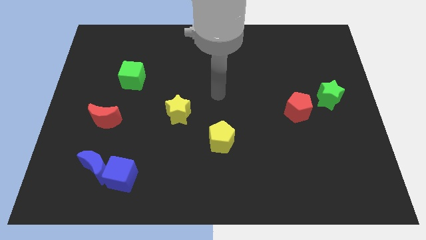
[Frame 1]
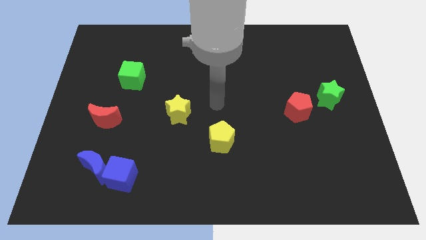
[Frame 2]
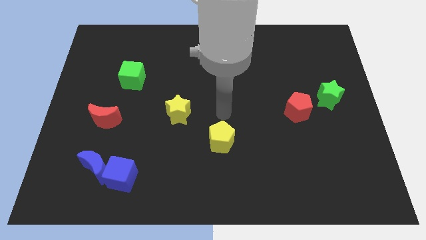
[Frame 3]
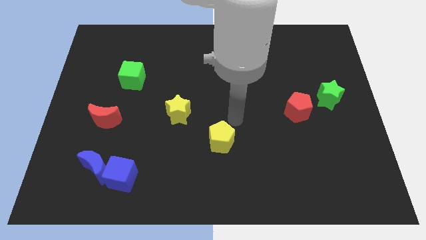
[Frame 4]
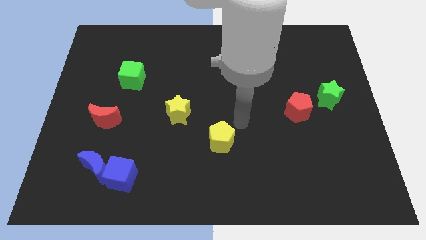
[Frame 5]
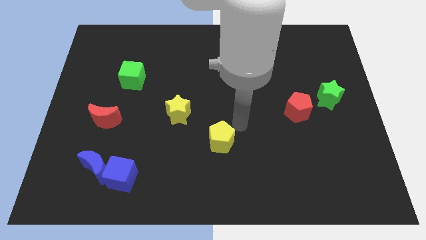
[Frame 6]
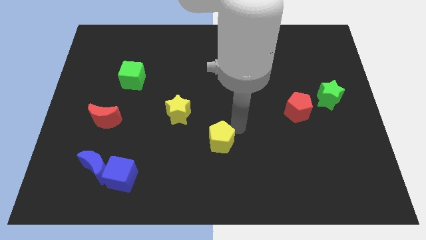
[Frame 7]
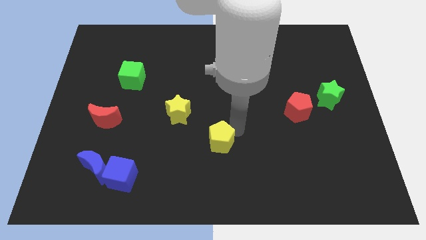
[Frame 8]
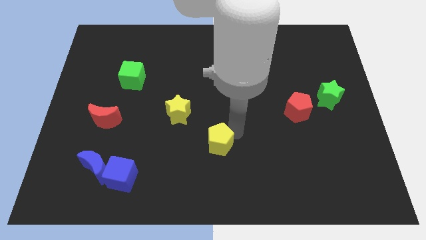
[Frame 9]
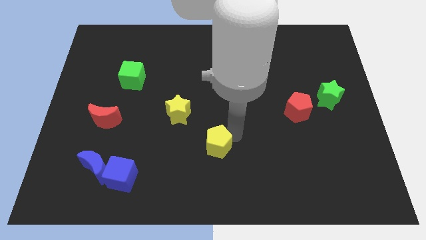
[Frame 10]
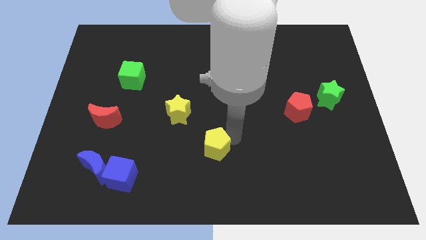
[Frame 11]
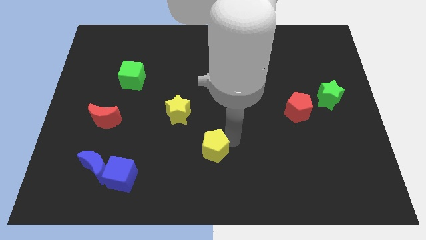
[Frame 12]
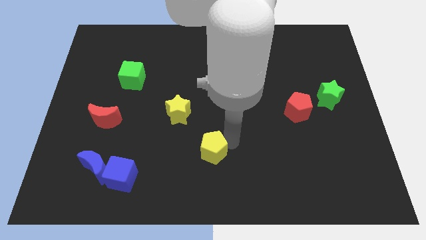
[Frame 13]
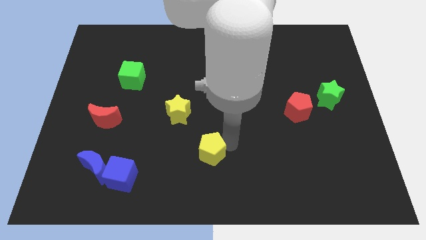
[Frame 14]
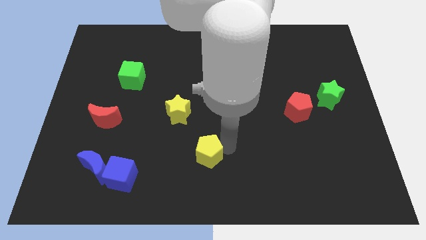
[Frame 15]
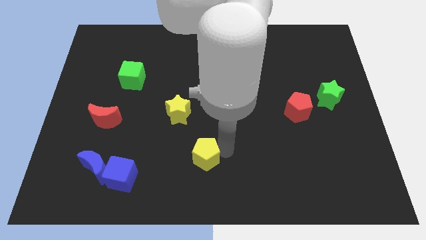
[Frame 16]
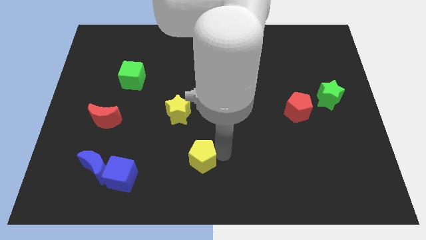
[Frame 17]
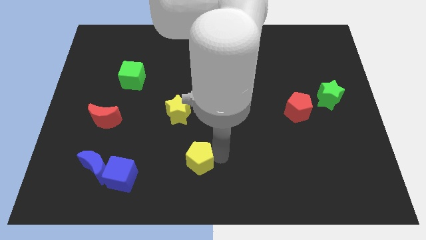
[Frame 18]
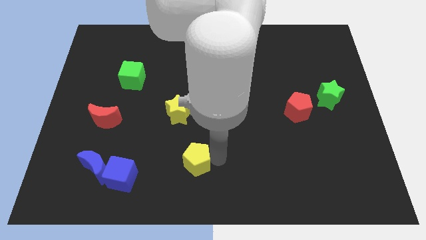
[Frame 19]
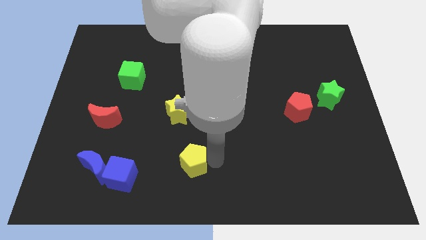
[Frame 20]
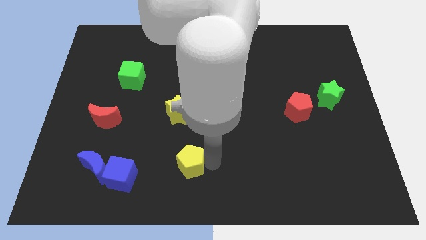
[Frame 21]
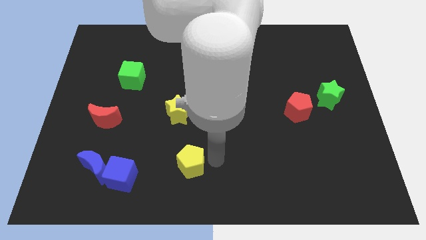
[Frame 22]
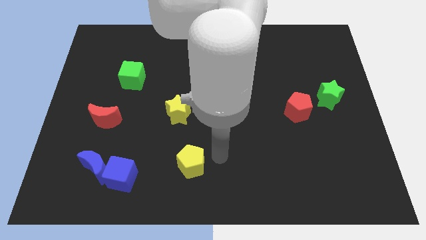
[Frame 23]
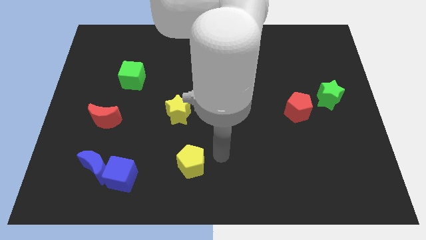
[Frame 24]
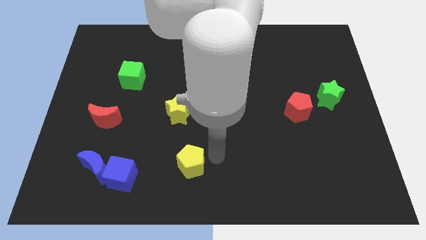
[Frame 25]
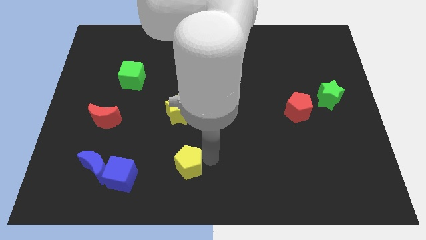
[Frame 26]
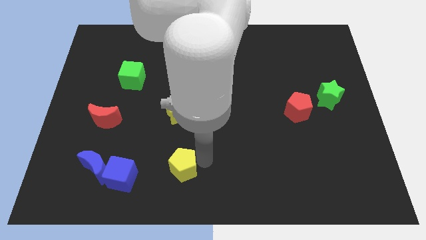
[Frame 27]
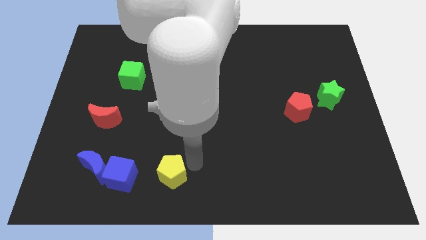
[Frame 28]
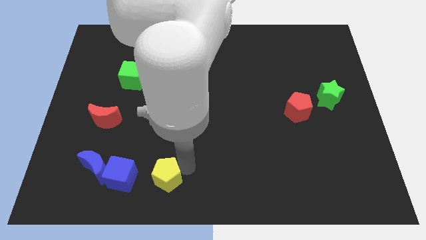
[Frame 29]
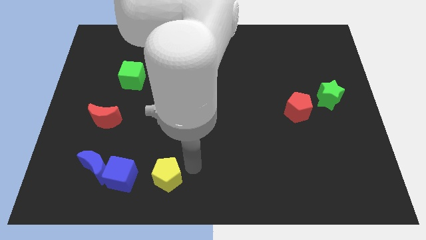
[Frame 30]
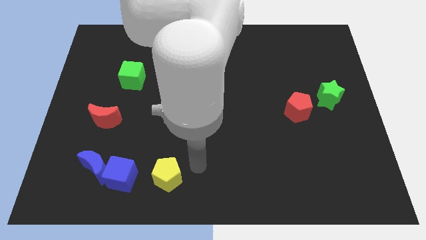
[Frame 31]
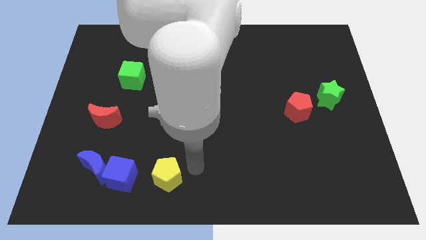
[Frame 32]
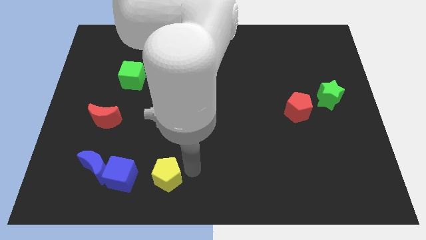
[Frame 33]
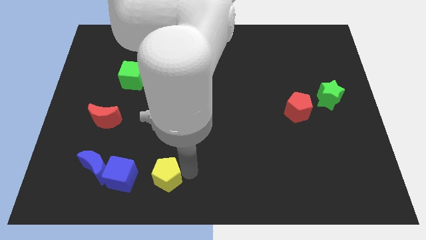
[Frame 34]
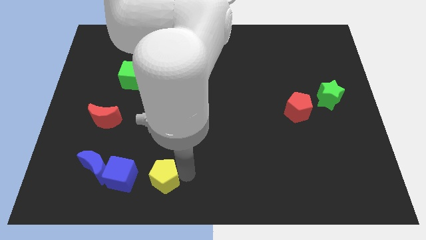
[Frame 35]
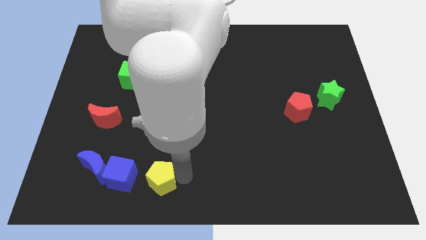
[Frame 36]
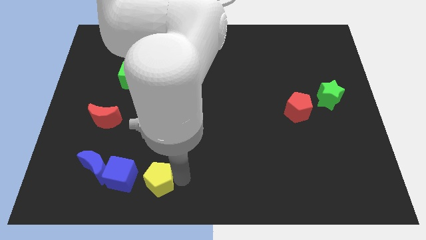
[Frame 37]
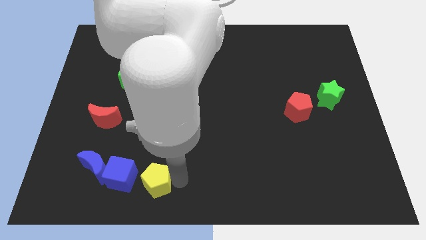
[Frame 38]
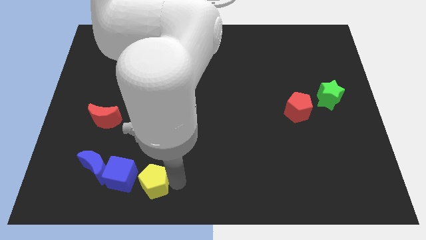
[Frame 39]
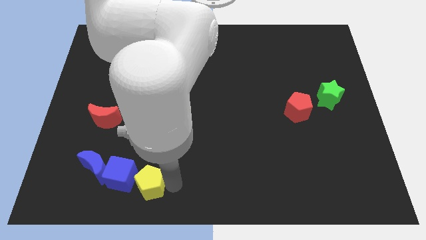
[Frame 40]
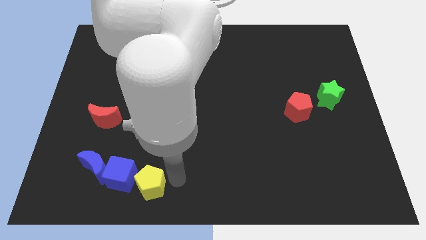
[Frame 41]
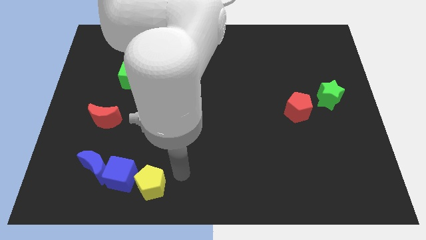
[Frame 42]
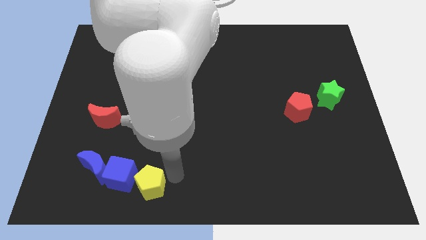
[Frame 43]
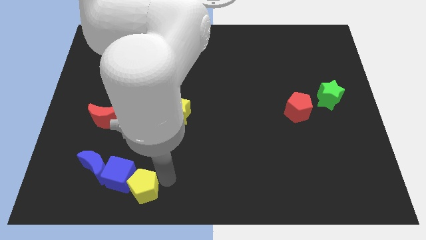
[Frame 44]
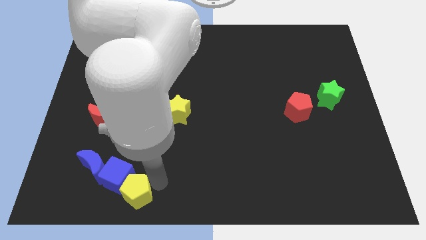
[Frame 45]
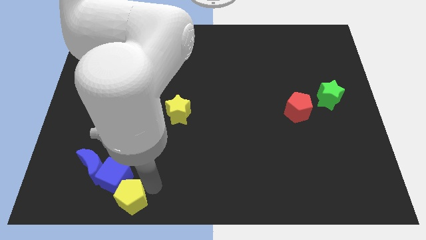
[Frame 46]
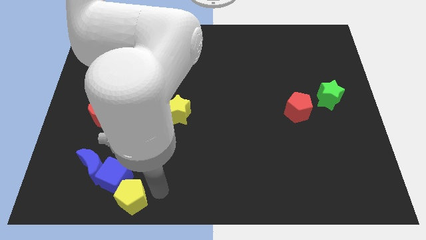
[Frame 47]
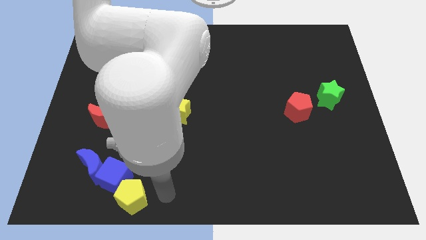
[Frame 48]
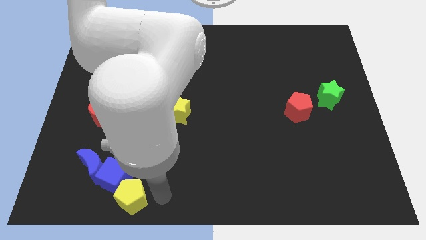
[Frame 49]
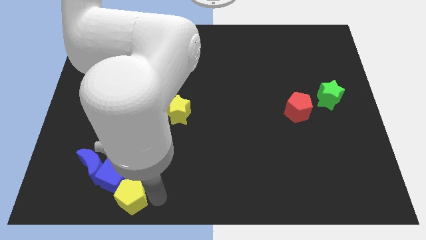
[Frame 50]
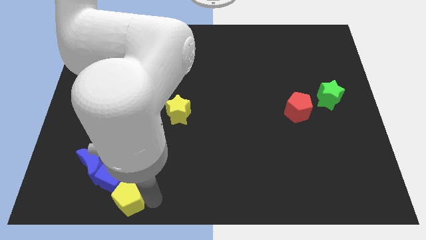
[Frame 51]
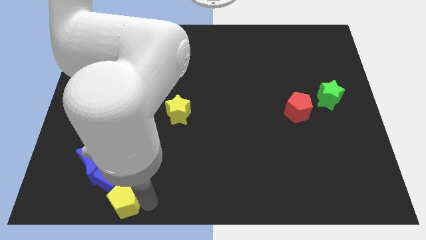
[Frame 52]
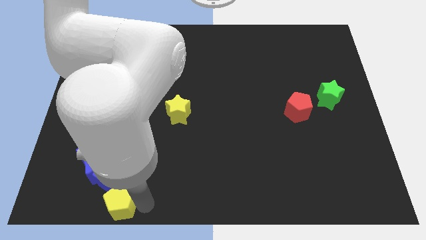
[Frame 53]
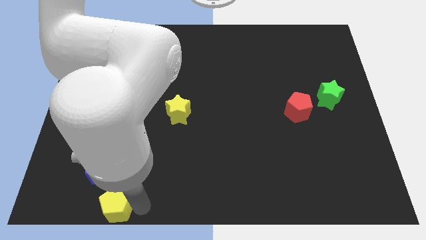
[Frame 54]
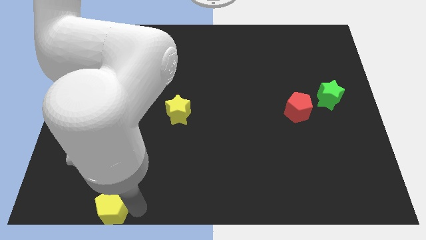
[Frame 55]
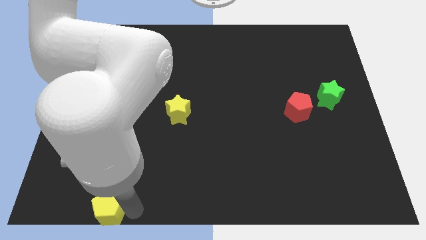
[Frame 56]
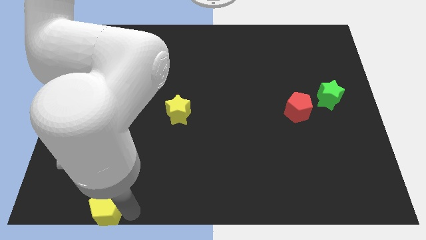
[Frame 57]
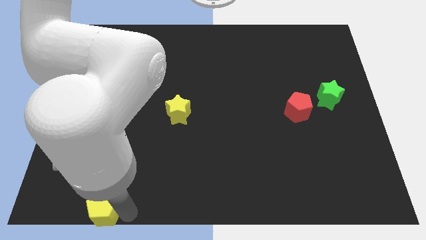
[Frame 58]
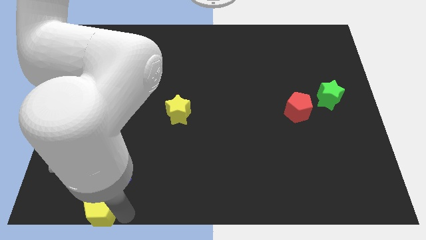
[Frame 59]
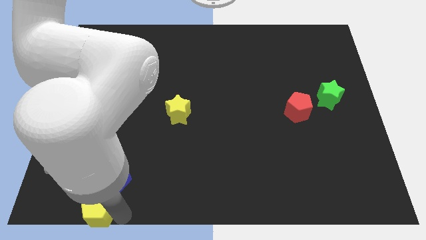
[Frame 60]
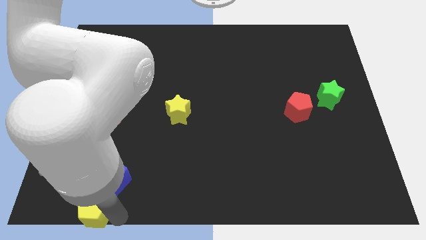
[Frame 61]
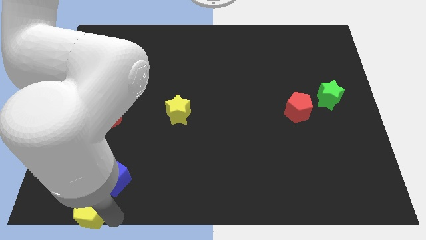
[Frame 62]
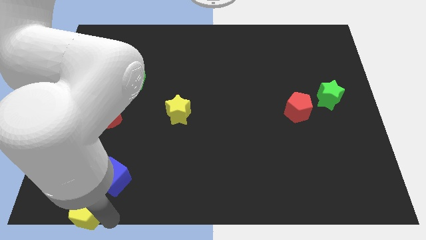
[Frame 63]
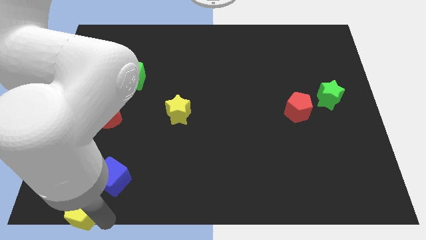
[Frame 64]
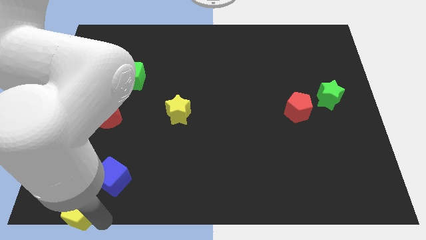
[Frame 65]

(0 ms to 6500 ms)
push the yellow pentagon to the bottom left corner
